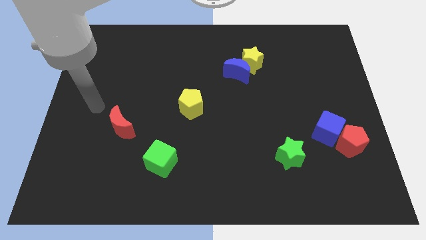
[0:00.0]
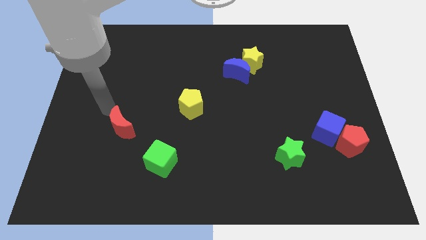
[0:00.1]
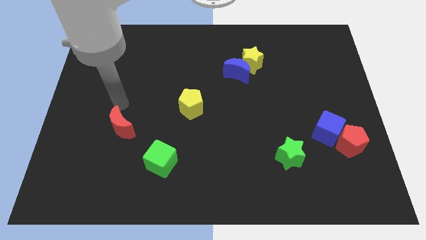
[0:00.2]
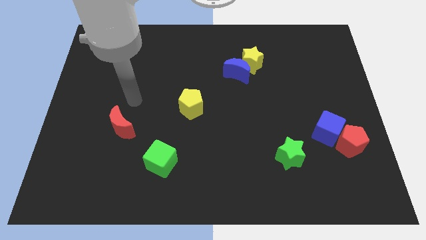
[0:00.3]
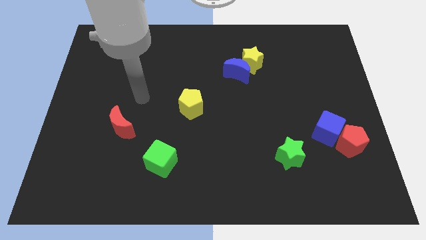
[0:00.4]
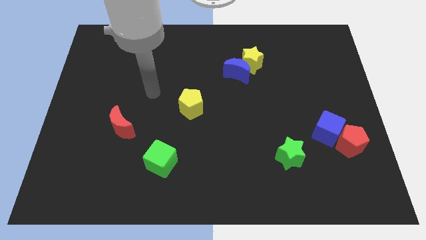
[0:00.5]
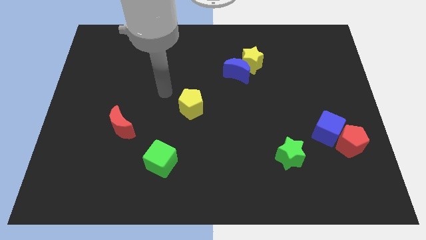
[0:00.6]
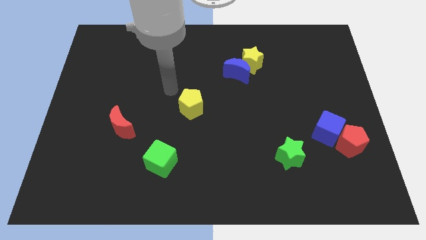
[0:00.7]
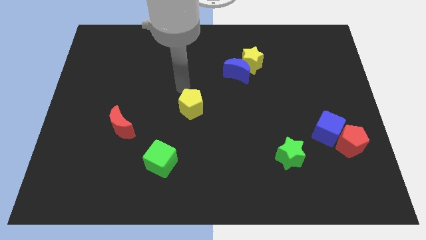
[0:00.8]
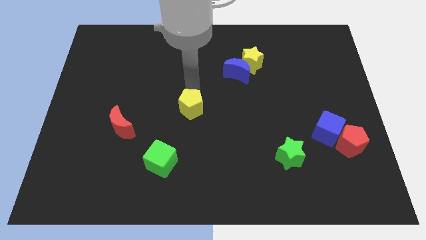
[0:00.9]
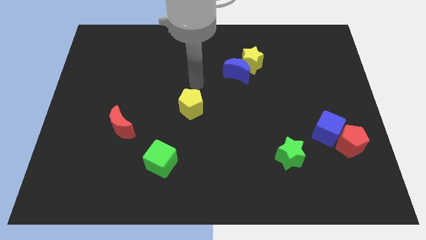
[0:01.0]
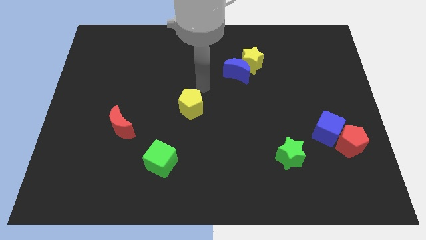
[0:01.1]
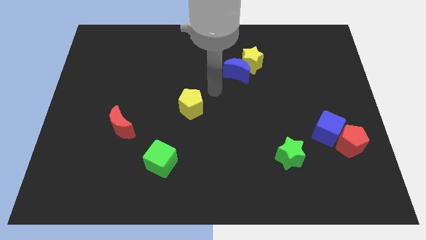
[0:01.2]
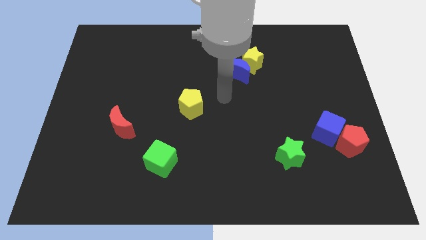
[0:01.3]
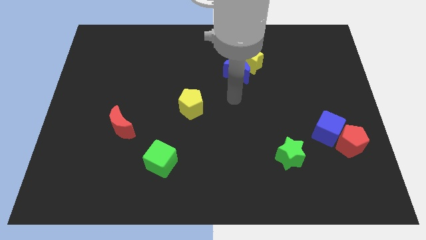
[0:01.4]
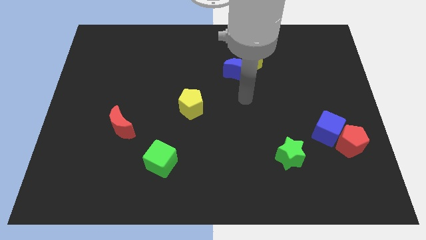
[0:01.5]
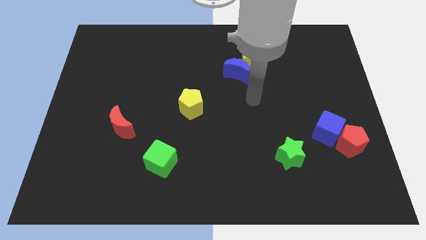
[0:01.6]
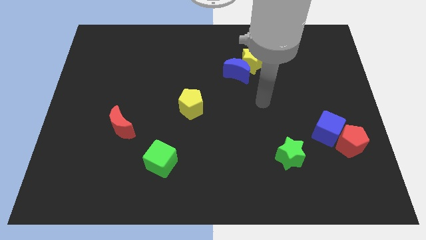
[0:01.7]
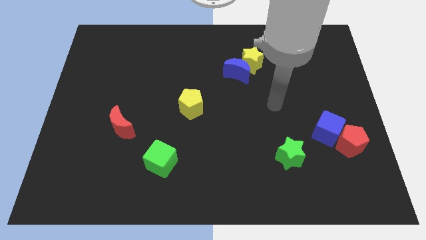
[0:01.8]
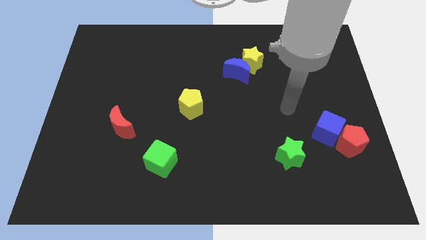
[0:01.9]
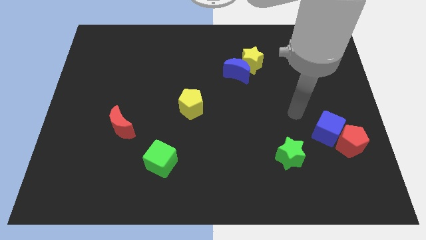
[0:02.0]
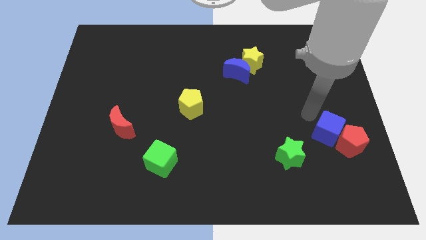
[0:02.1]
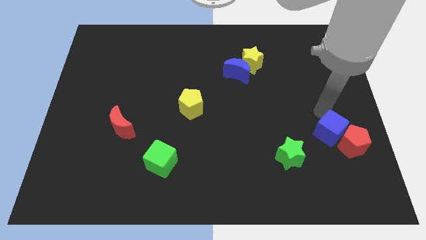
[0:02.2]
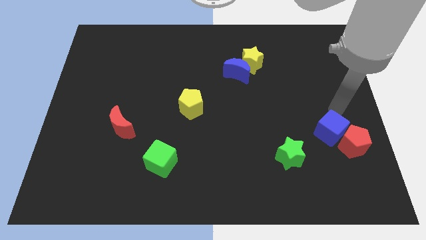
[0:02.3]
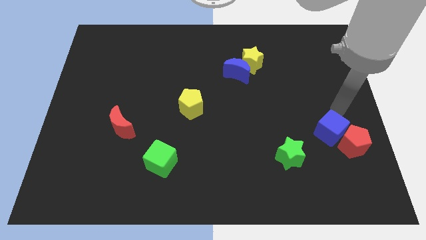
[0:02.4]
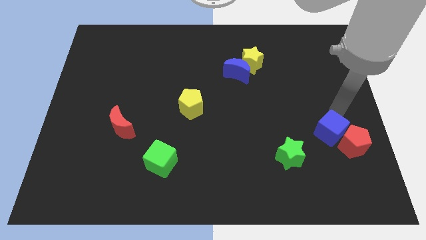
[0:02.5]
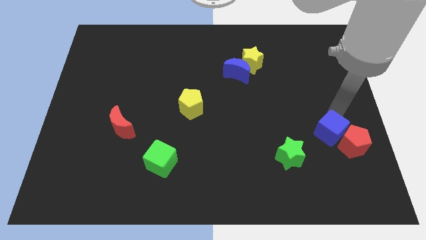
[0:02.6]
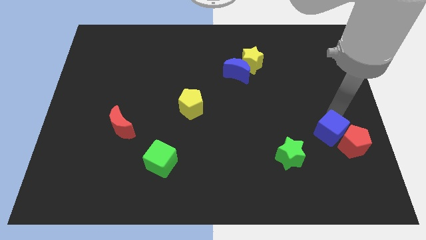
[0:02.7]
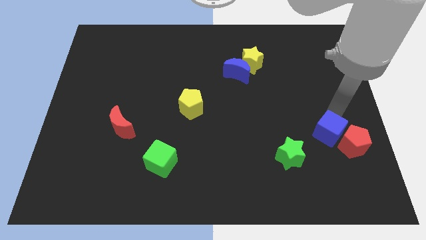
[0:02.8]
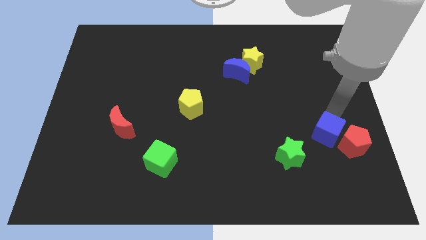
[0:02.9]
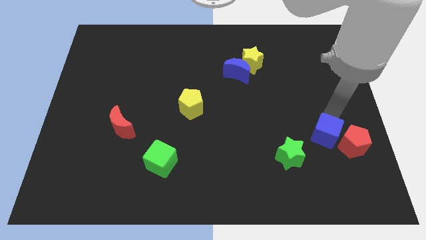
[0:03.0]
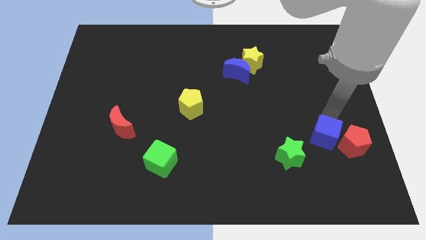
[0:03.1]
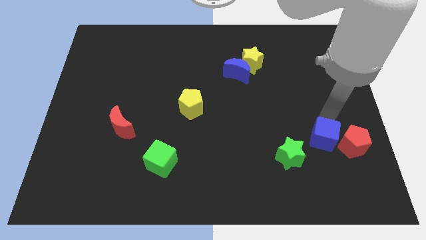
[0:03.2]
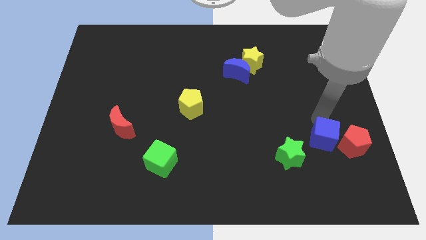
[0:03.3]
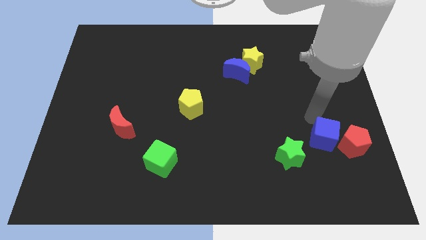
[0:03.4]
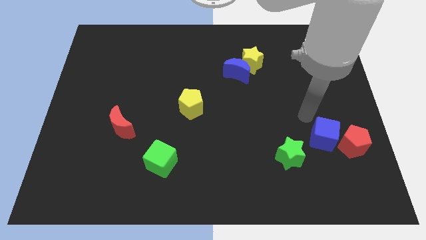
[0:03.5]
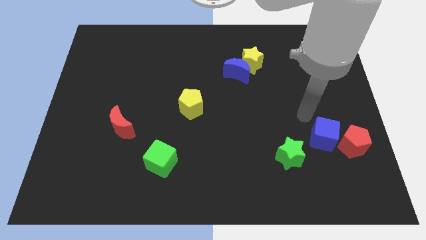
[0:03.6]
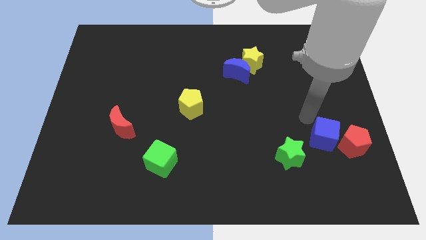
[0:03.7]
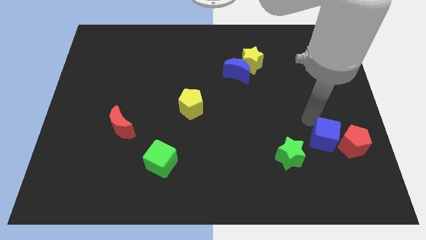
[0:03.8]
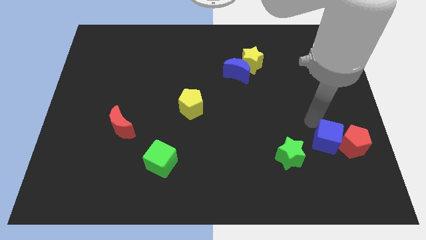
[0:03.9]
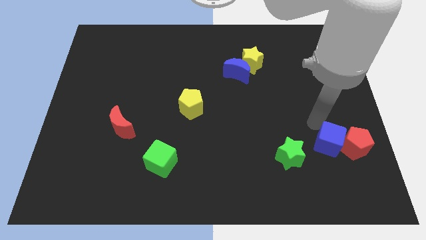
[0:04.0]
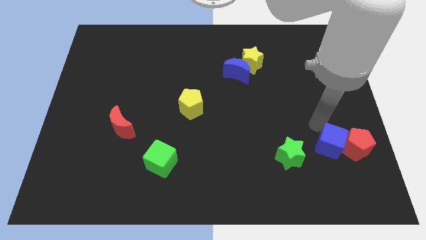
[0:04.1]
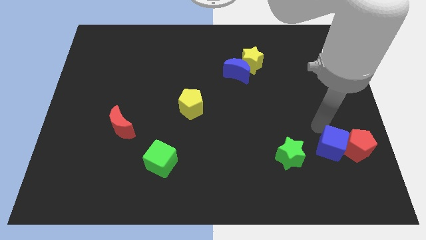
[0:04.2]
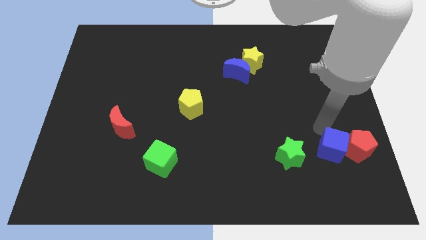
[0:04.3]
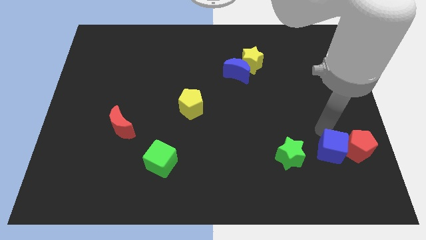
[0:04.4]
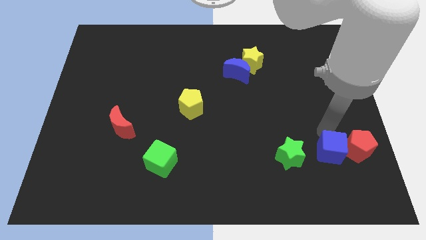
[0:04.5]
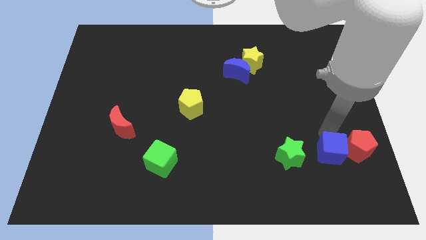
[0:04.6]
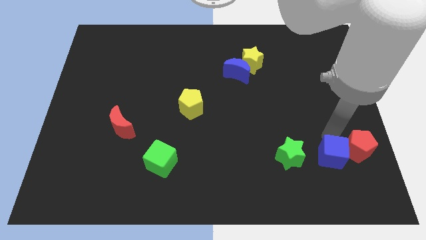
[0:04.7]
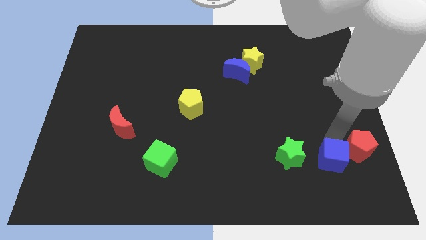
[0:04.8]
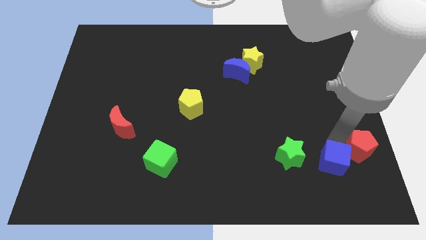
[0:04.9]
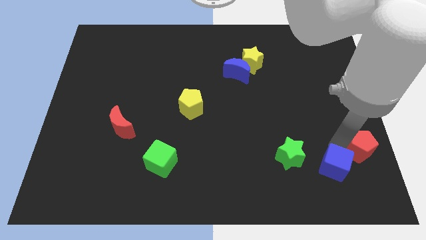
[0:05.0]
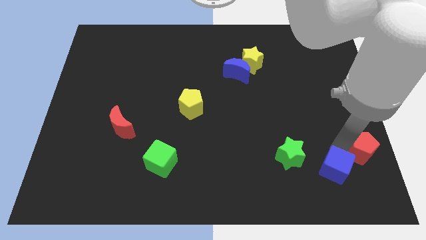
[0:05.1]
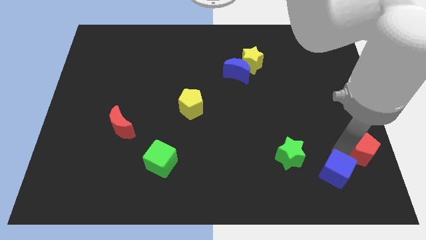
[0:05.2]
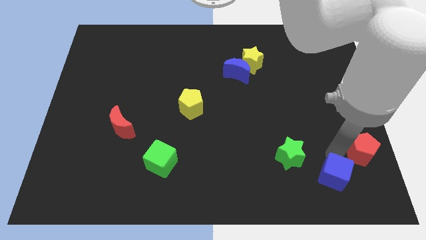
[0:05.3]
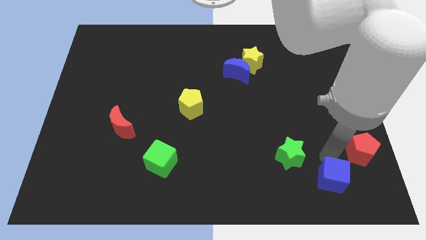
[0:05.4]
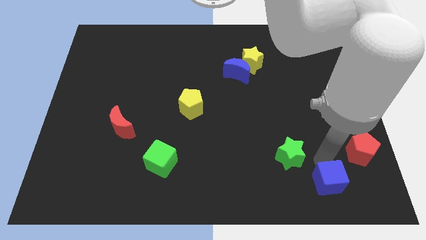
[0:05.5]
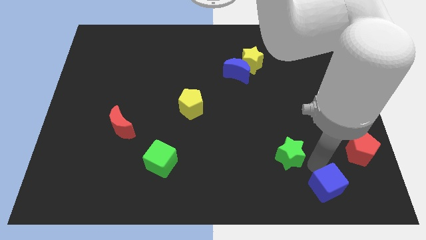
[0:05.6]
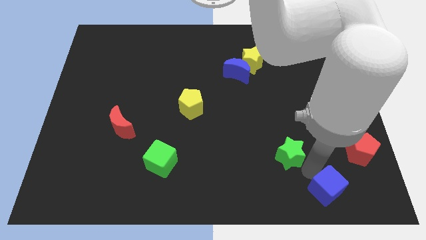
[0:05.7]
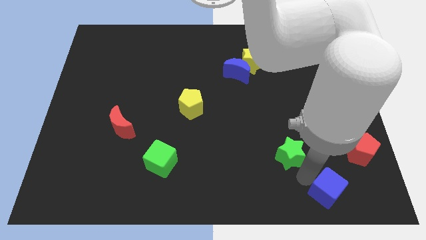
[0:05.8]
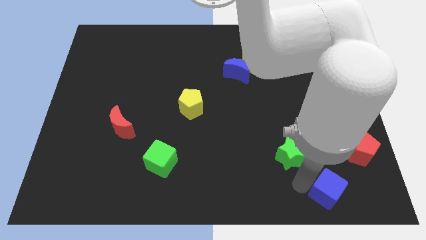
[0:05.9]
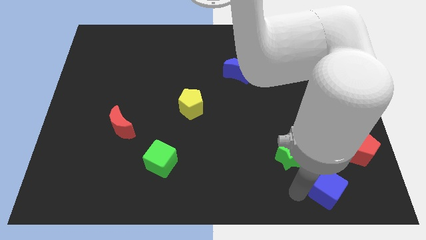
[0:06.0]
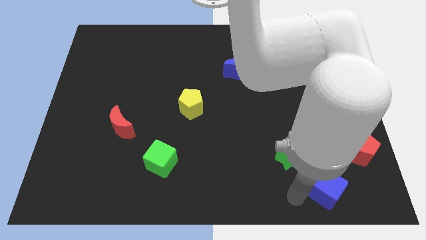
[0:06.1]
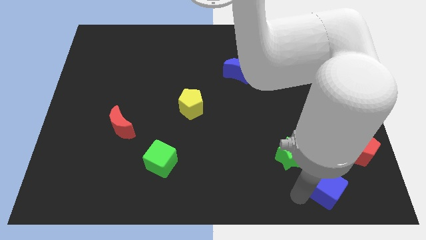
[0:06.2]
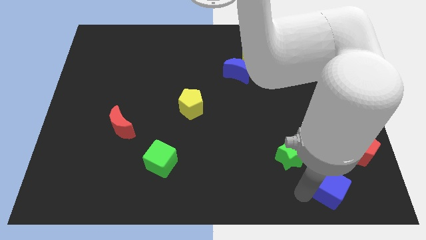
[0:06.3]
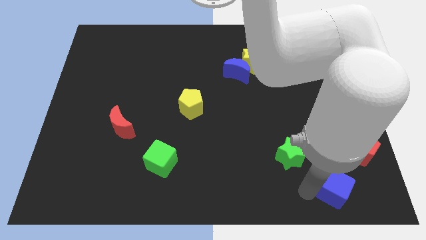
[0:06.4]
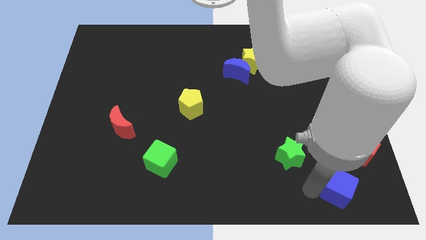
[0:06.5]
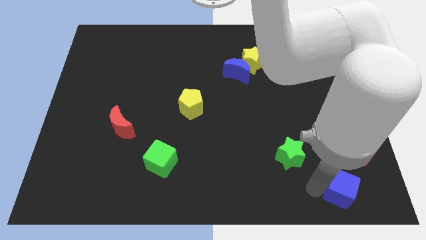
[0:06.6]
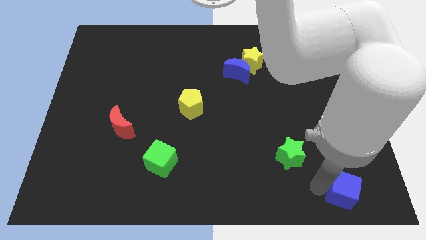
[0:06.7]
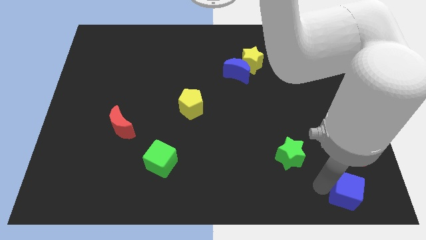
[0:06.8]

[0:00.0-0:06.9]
push the blue cube to the bottom right

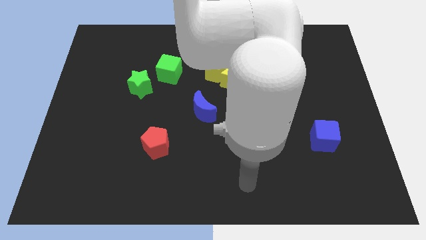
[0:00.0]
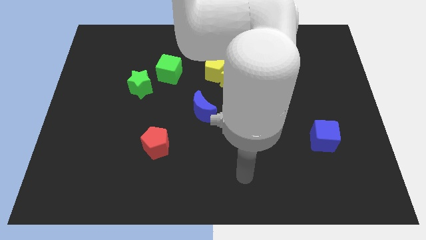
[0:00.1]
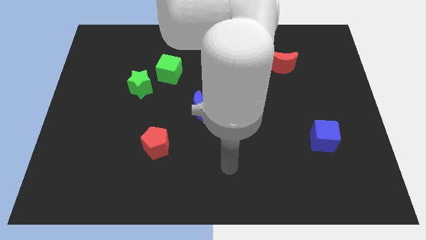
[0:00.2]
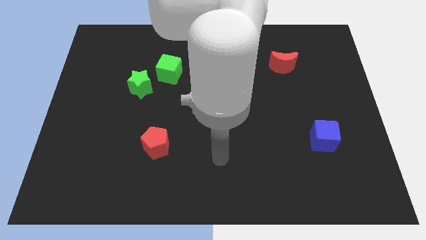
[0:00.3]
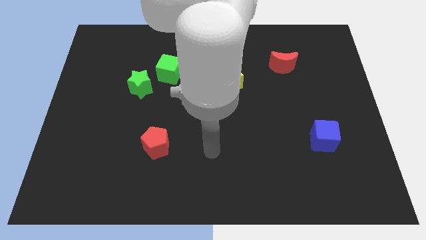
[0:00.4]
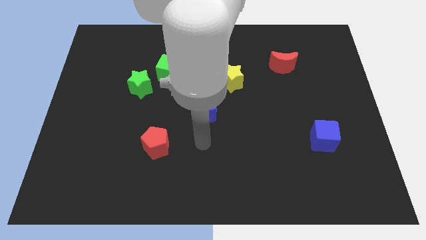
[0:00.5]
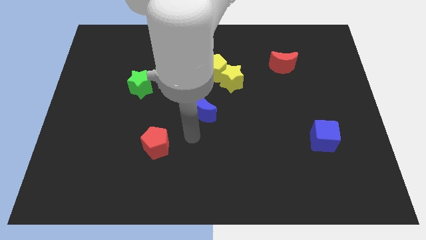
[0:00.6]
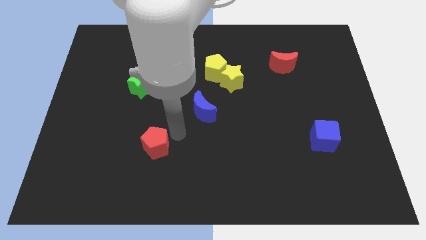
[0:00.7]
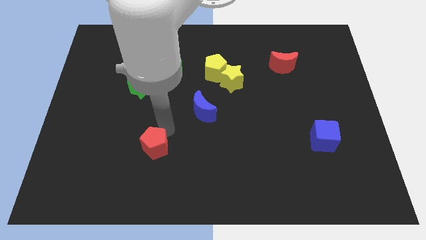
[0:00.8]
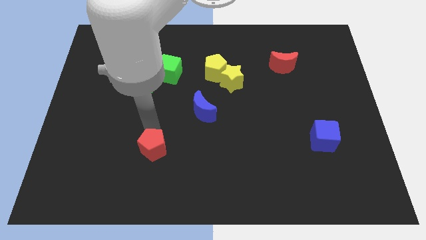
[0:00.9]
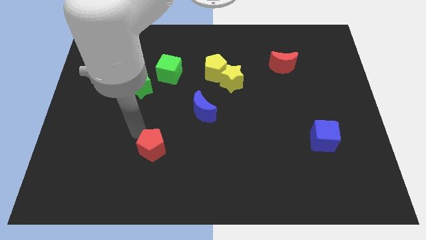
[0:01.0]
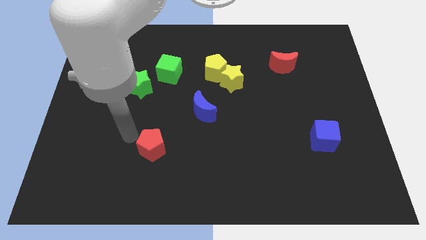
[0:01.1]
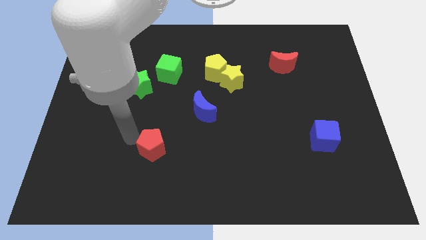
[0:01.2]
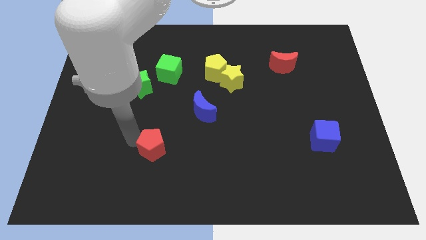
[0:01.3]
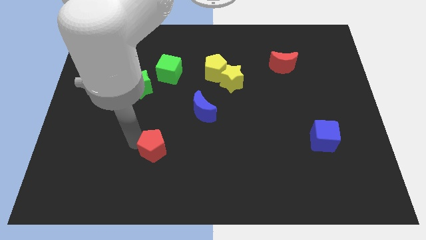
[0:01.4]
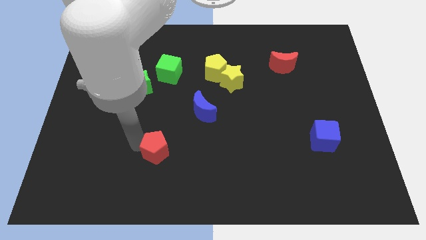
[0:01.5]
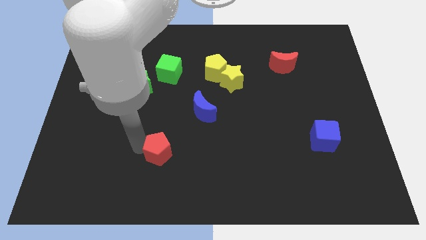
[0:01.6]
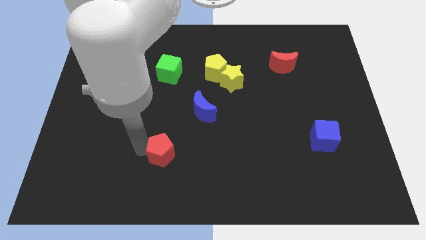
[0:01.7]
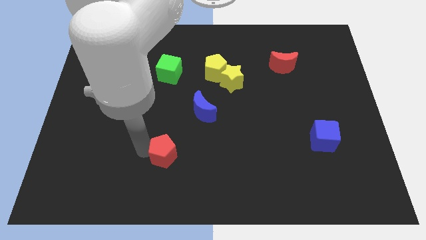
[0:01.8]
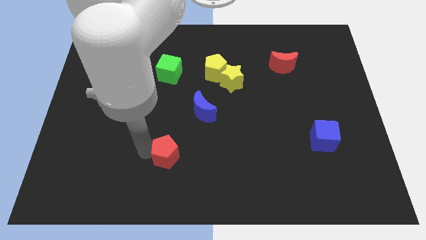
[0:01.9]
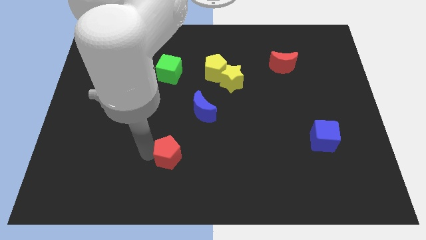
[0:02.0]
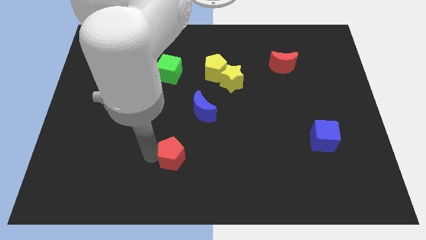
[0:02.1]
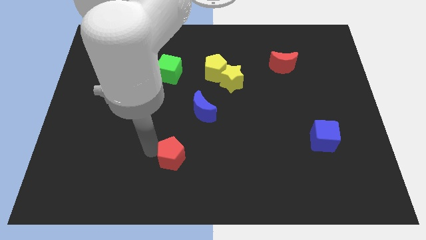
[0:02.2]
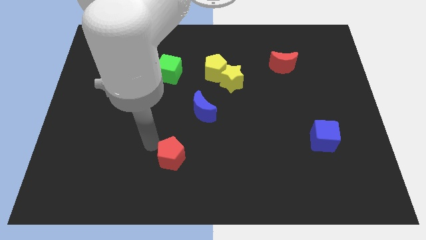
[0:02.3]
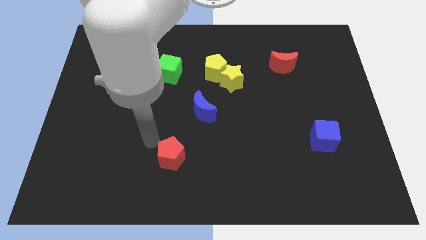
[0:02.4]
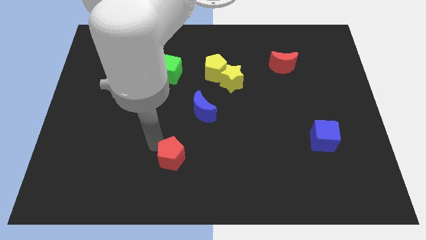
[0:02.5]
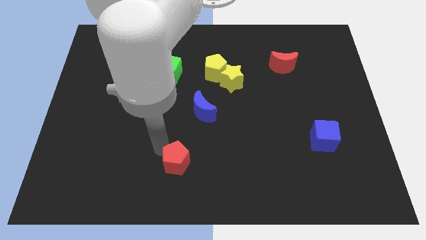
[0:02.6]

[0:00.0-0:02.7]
move the red pentagon to the bottom side
